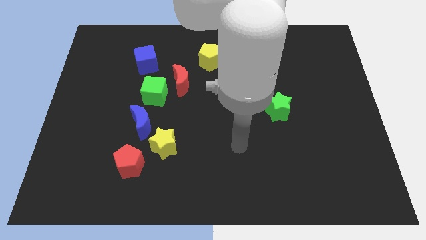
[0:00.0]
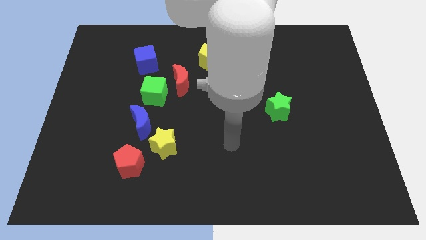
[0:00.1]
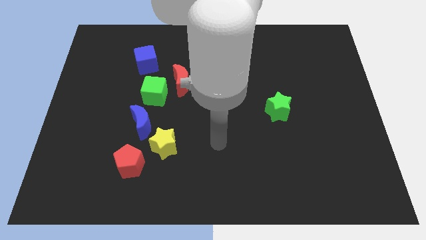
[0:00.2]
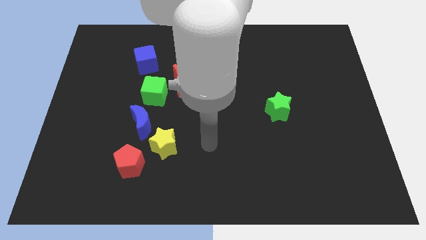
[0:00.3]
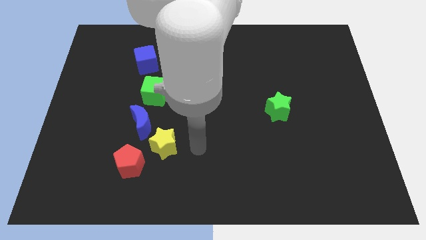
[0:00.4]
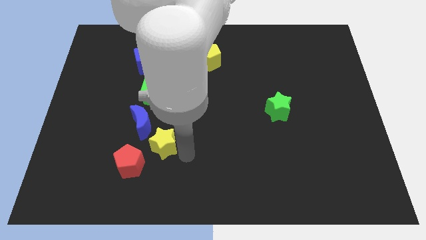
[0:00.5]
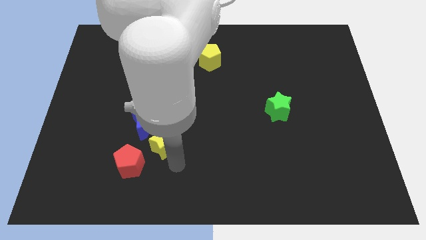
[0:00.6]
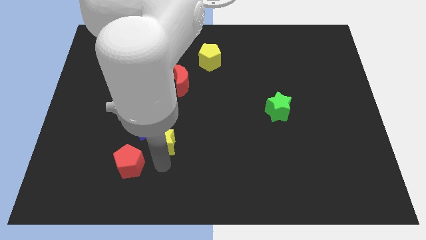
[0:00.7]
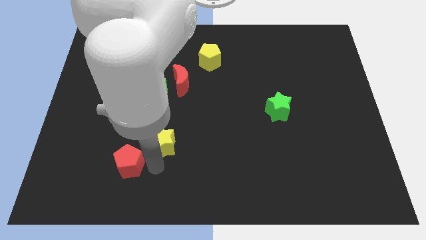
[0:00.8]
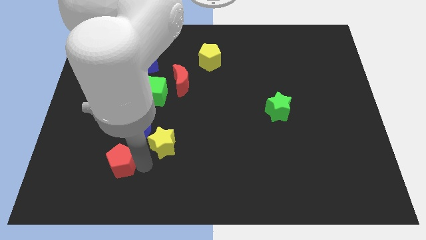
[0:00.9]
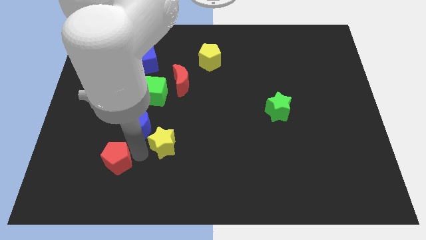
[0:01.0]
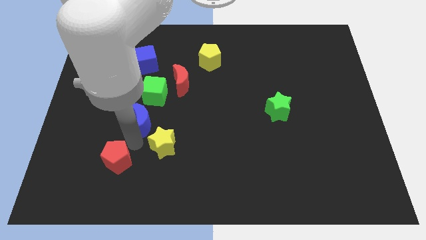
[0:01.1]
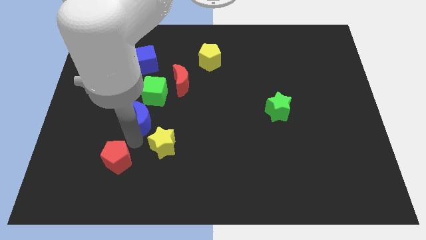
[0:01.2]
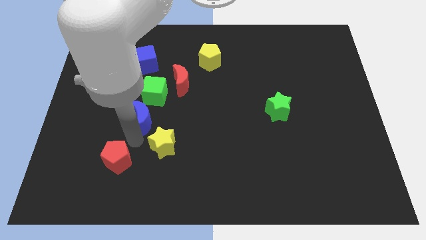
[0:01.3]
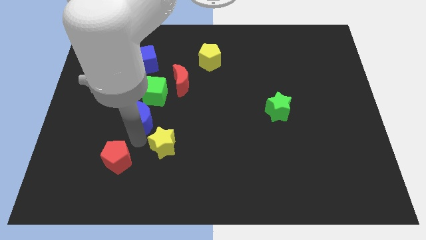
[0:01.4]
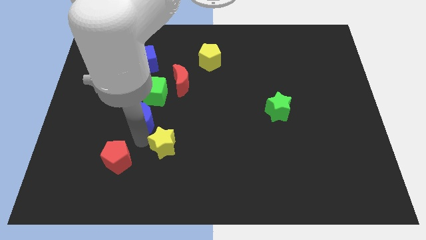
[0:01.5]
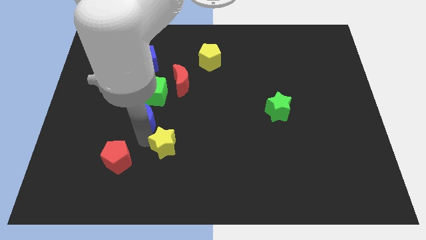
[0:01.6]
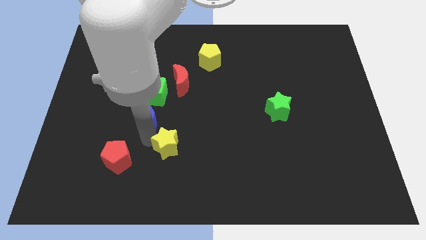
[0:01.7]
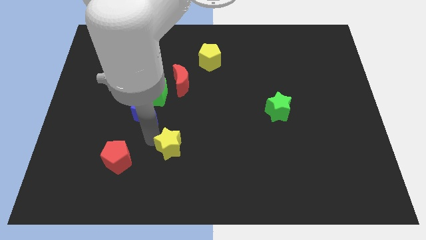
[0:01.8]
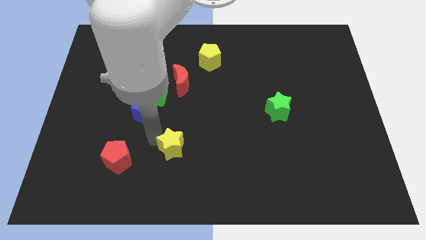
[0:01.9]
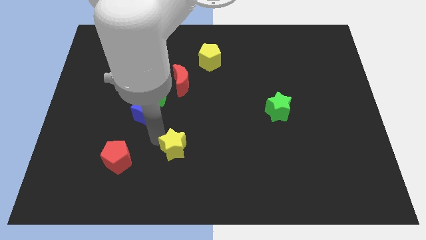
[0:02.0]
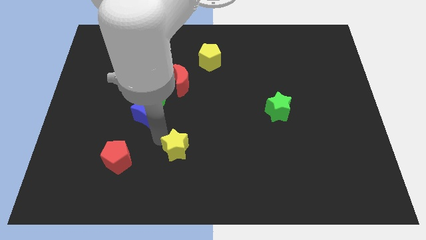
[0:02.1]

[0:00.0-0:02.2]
move the yellow star away from the blue moon and red pentagon

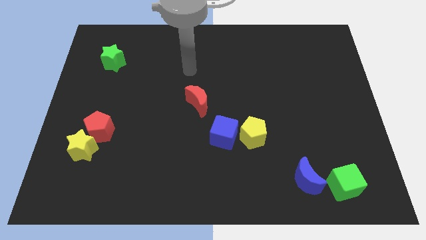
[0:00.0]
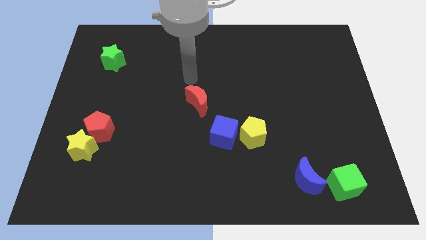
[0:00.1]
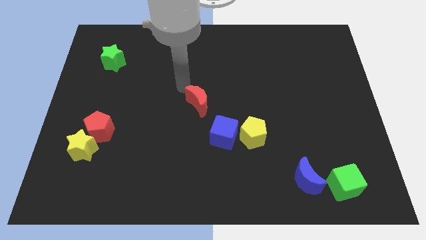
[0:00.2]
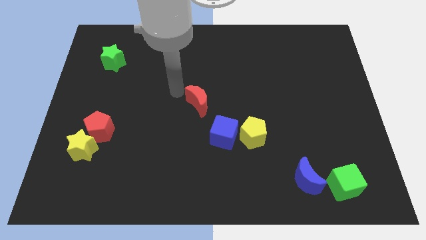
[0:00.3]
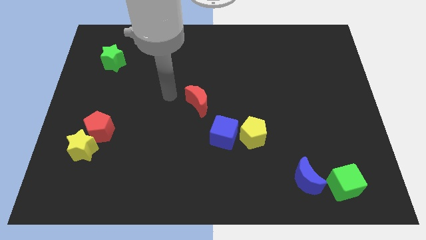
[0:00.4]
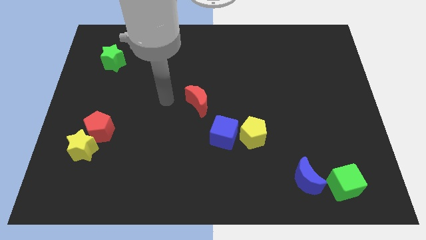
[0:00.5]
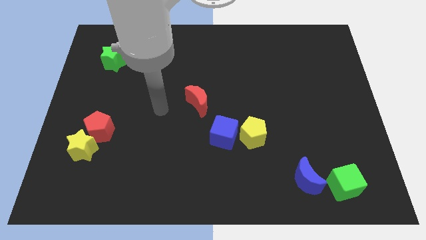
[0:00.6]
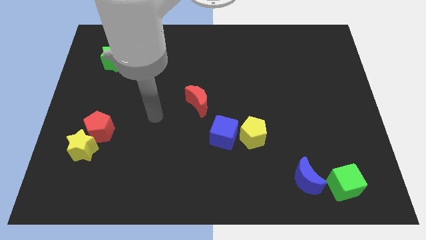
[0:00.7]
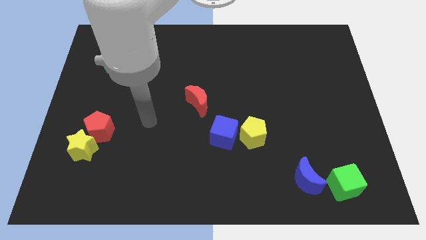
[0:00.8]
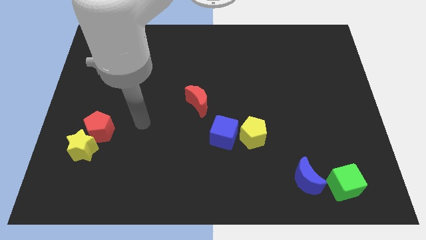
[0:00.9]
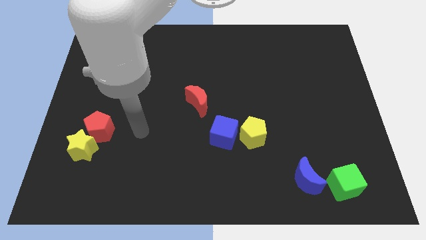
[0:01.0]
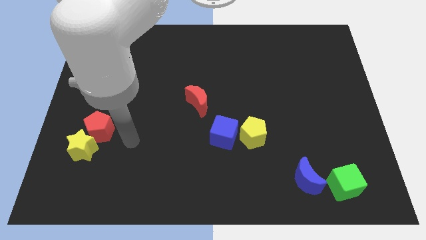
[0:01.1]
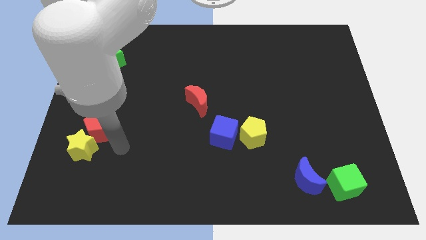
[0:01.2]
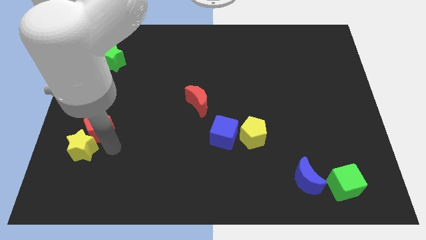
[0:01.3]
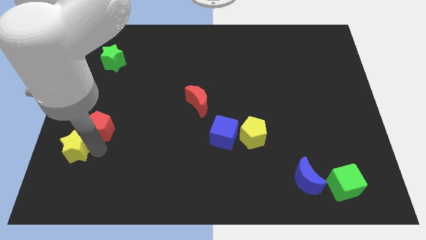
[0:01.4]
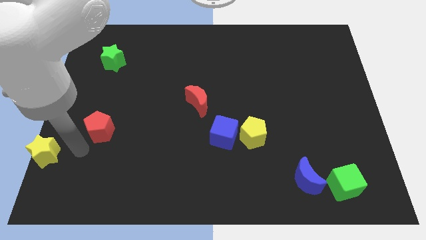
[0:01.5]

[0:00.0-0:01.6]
separate the red pentagon from the yellow star

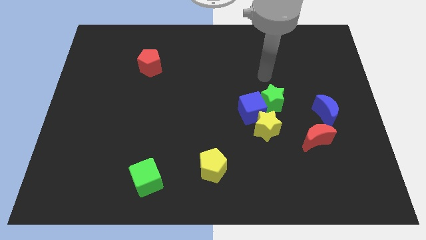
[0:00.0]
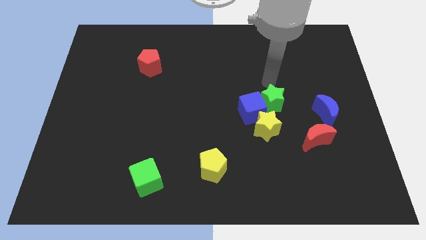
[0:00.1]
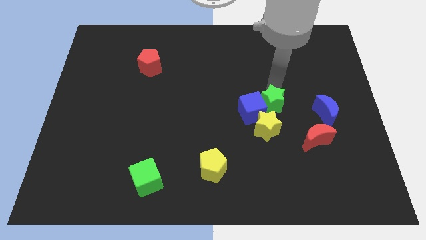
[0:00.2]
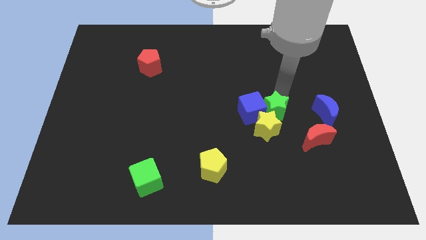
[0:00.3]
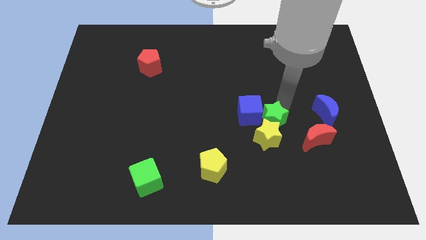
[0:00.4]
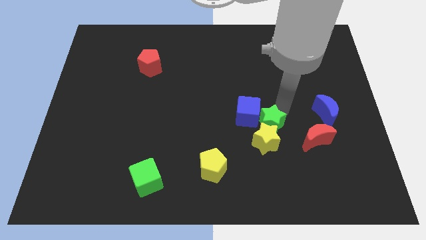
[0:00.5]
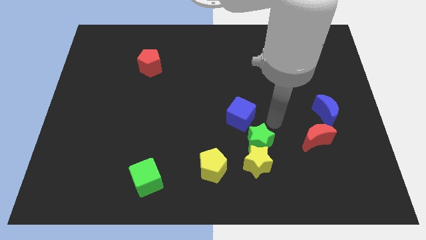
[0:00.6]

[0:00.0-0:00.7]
separate the blue cube from the green star and yellow star

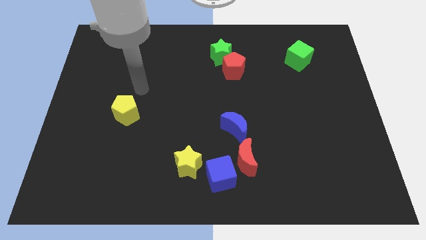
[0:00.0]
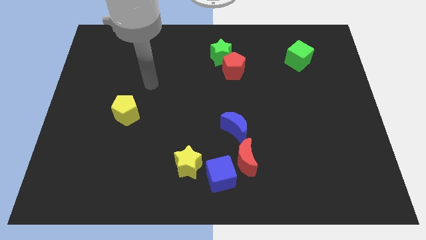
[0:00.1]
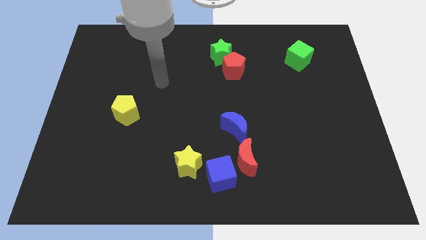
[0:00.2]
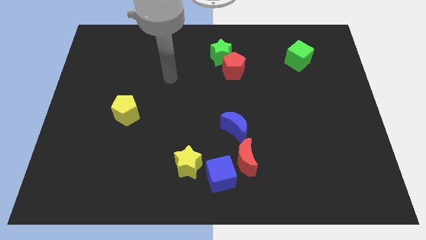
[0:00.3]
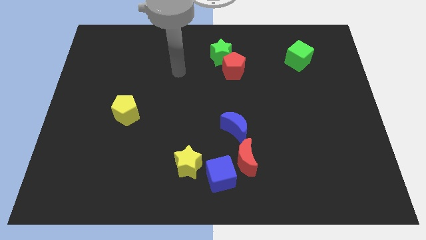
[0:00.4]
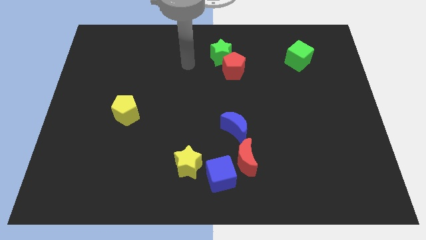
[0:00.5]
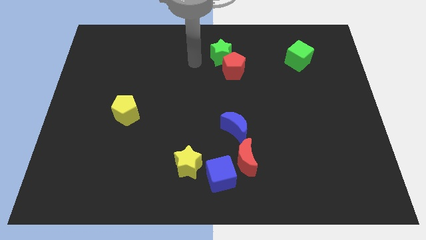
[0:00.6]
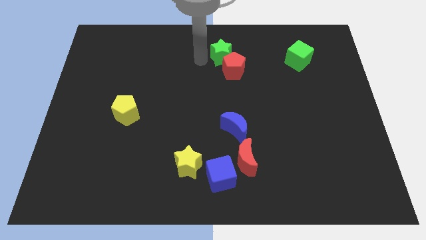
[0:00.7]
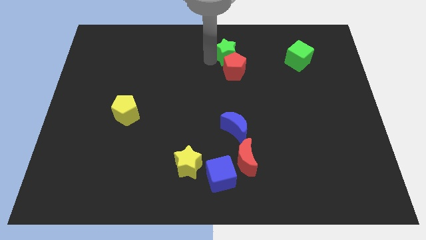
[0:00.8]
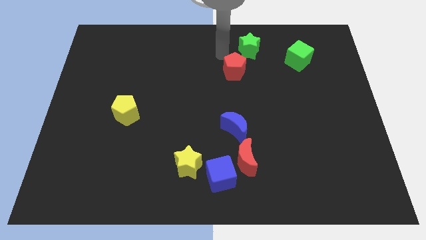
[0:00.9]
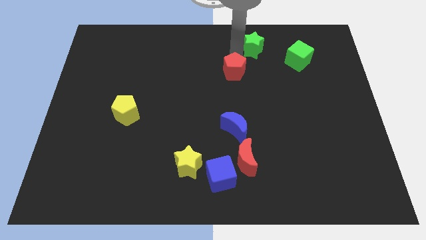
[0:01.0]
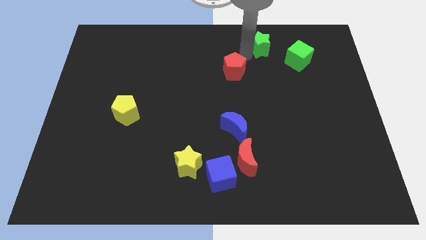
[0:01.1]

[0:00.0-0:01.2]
pull the red pentagon apart from the green star

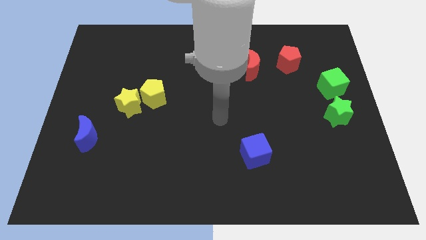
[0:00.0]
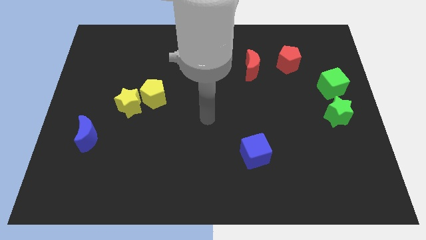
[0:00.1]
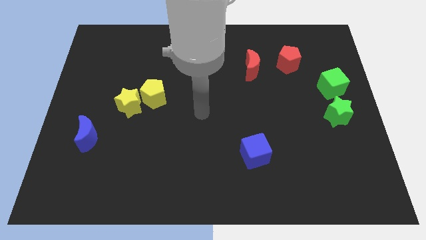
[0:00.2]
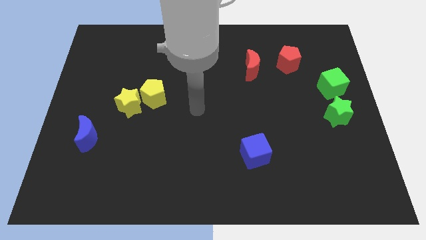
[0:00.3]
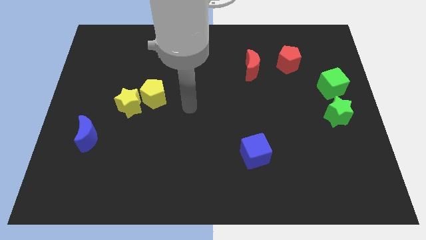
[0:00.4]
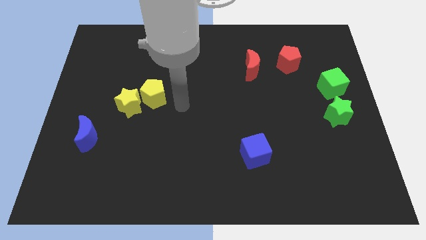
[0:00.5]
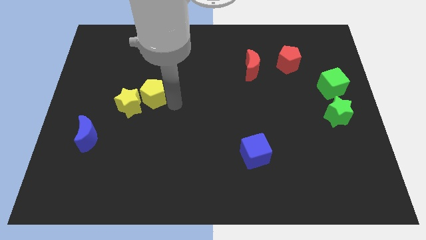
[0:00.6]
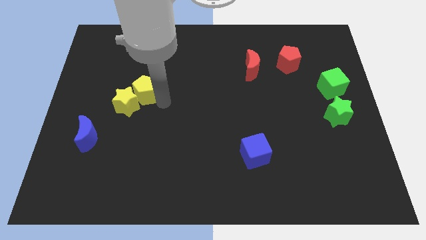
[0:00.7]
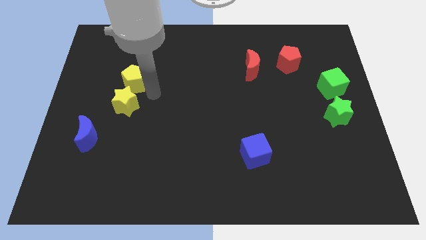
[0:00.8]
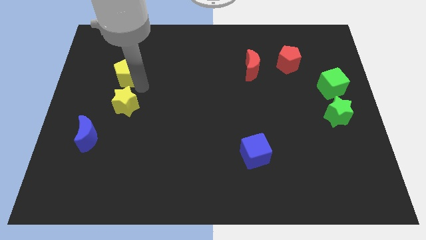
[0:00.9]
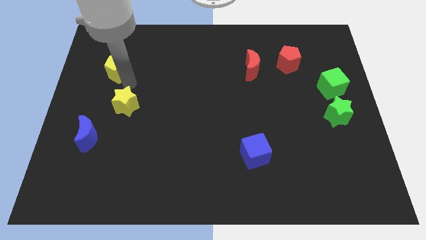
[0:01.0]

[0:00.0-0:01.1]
pull the yellow star apart from the yellow pentagon

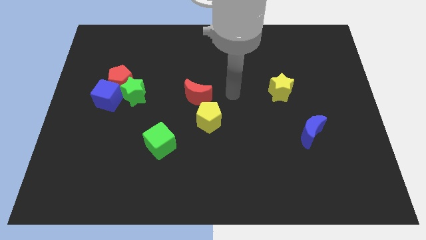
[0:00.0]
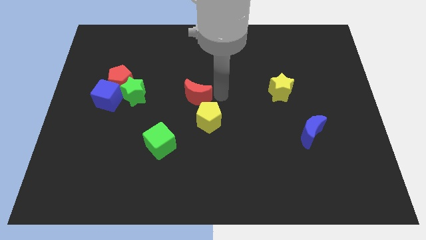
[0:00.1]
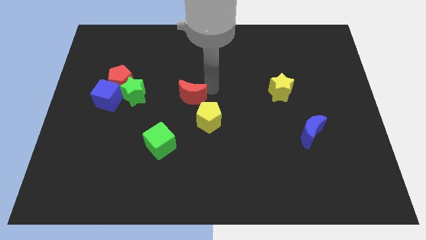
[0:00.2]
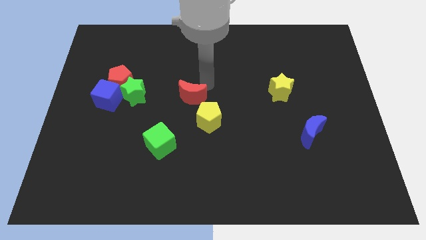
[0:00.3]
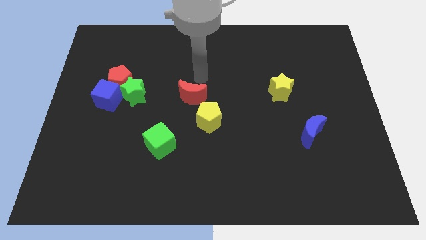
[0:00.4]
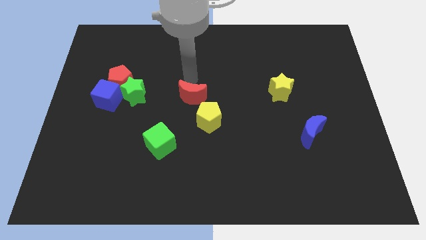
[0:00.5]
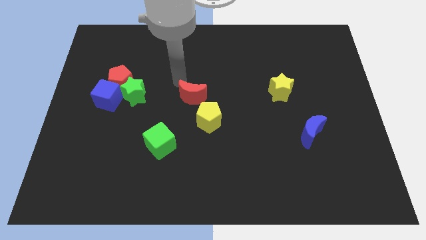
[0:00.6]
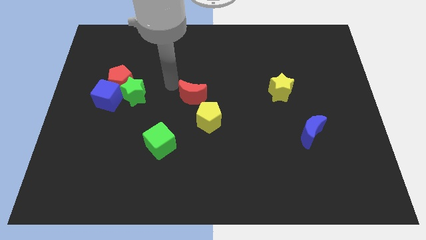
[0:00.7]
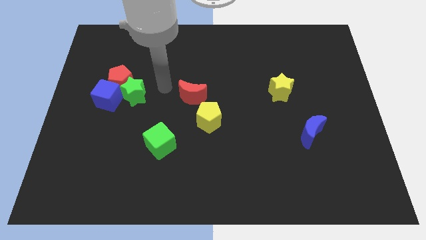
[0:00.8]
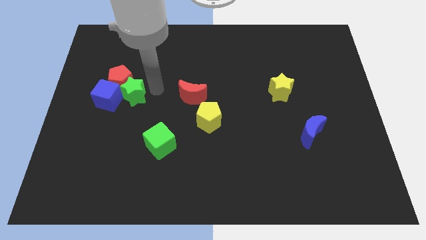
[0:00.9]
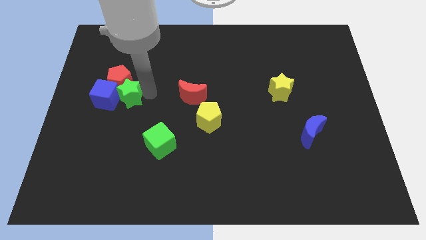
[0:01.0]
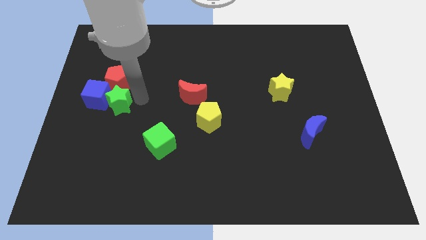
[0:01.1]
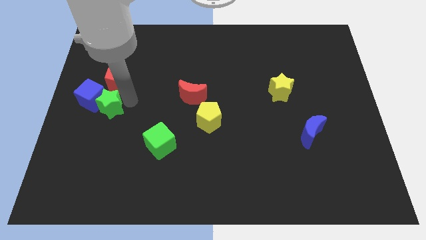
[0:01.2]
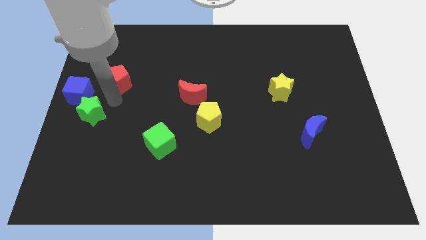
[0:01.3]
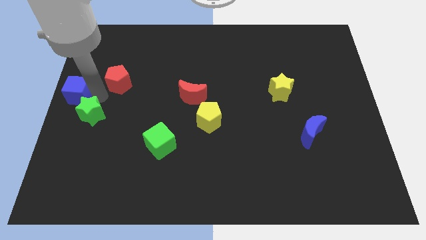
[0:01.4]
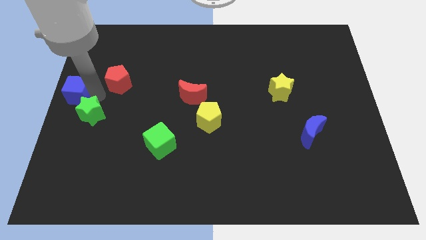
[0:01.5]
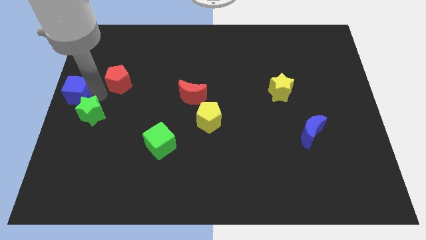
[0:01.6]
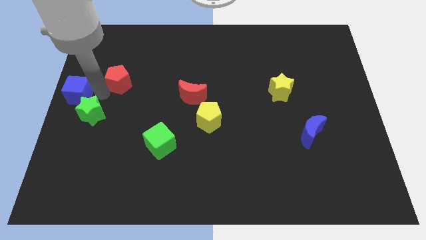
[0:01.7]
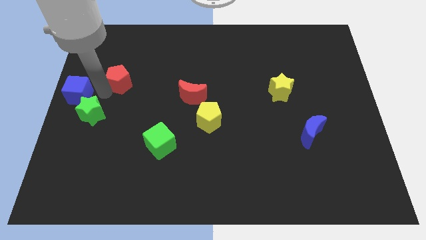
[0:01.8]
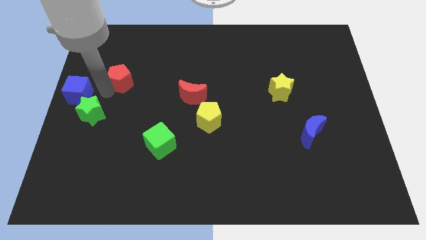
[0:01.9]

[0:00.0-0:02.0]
move the red pentagon away from the green star and blue cube

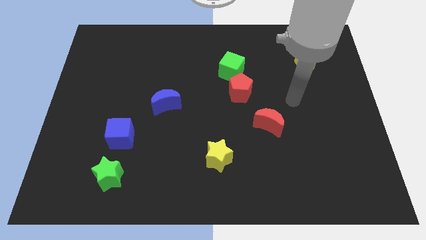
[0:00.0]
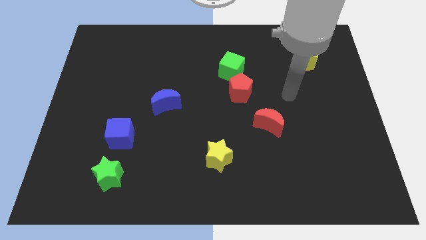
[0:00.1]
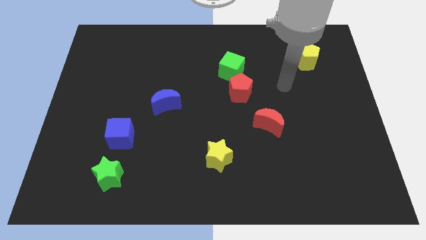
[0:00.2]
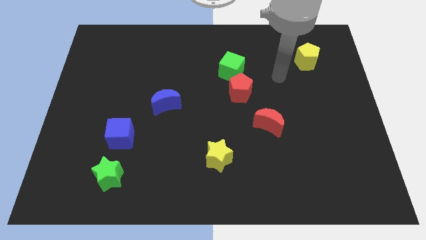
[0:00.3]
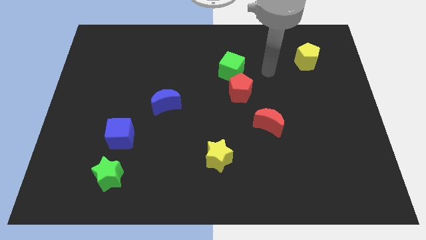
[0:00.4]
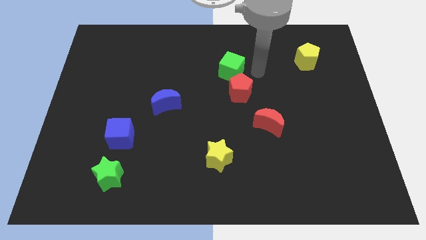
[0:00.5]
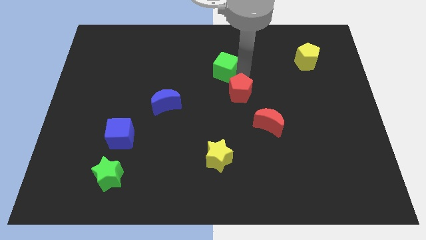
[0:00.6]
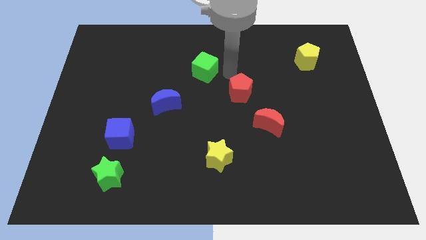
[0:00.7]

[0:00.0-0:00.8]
pull the red pentagon apart from the green cube
